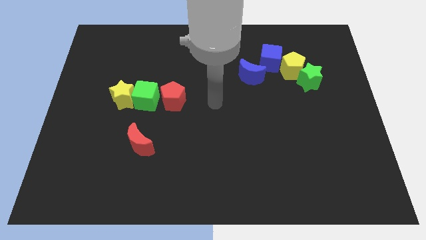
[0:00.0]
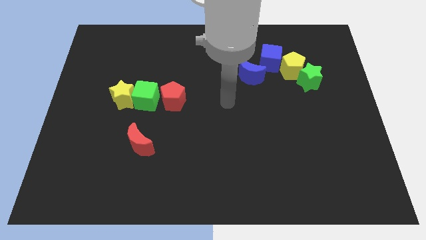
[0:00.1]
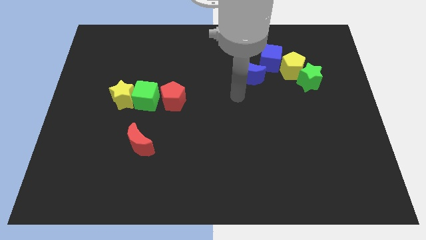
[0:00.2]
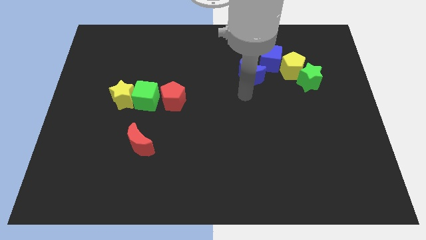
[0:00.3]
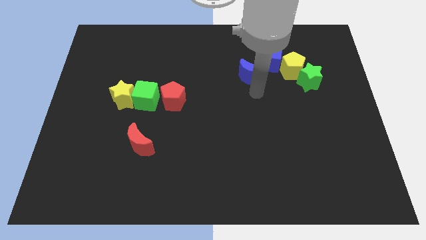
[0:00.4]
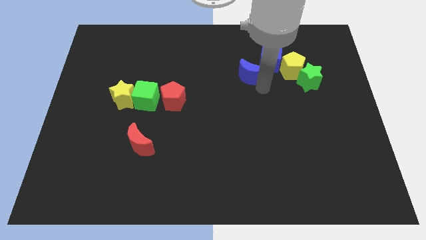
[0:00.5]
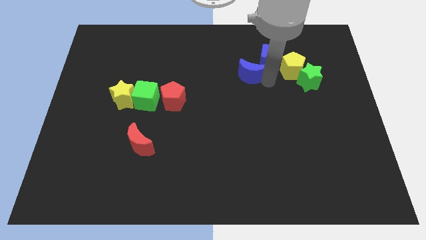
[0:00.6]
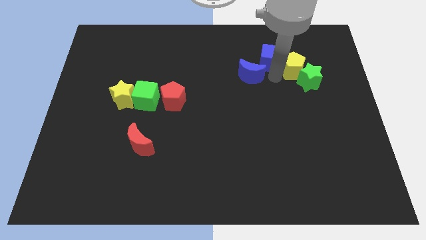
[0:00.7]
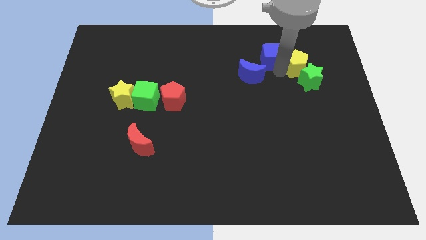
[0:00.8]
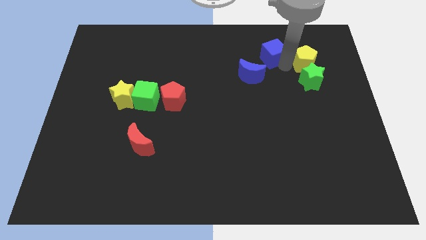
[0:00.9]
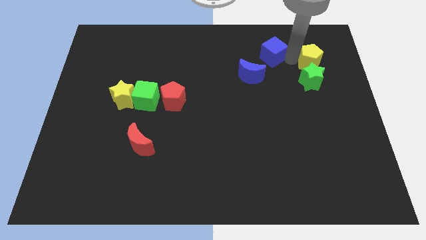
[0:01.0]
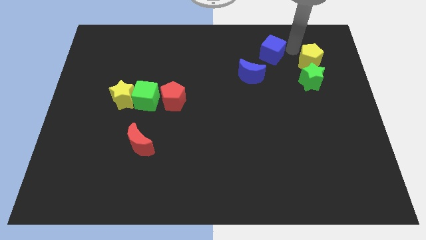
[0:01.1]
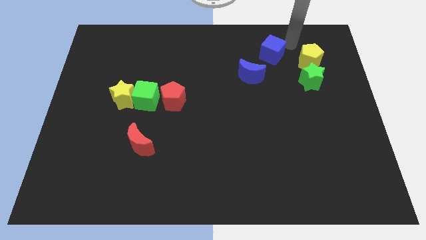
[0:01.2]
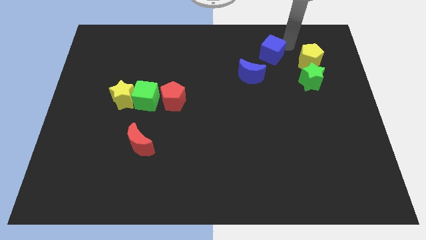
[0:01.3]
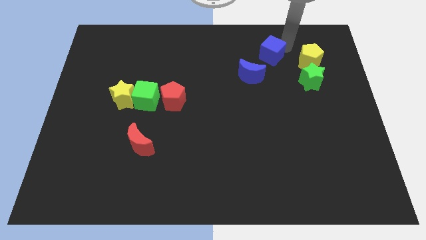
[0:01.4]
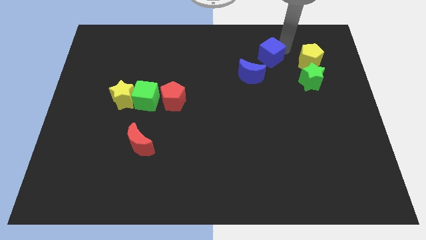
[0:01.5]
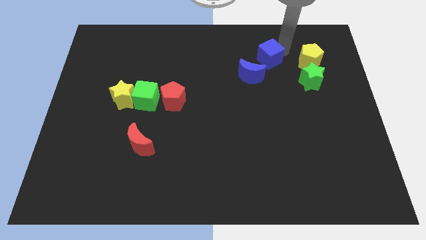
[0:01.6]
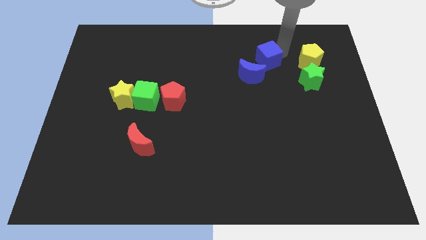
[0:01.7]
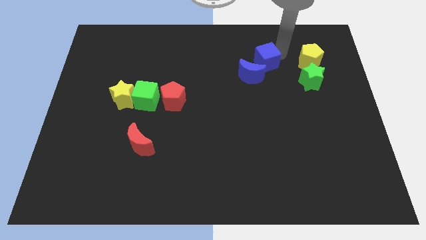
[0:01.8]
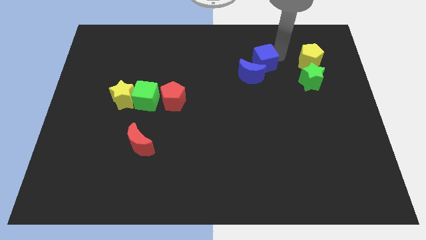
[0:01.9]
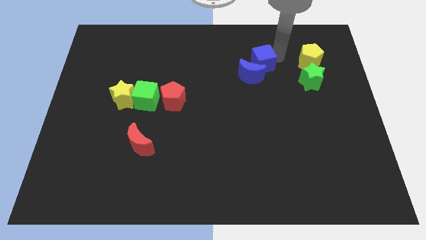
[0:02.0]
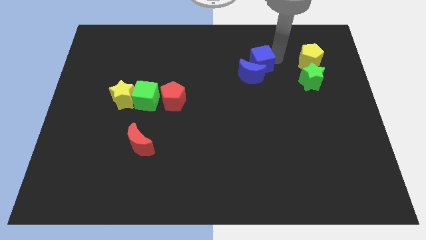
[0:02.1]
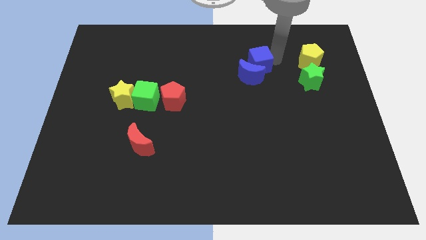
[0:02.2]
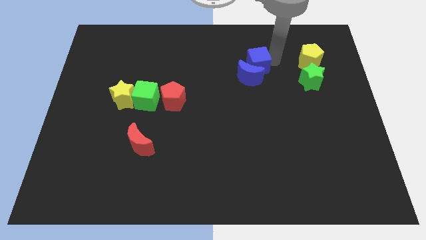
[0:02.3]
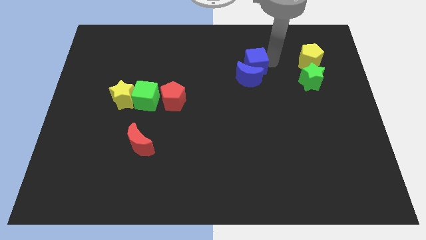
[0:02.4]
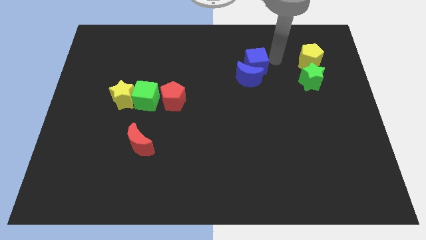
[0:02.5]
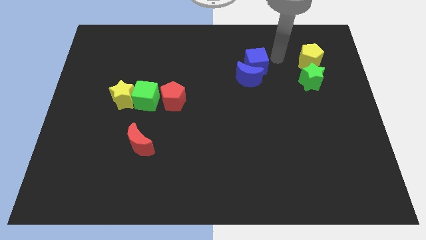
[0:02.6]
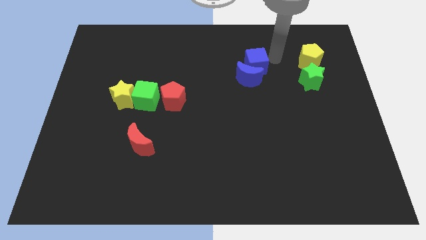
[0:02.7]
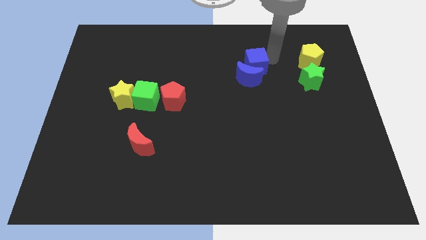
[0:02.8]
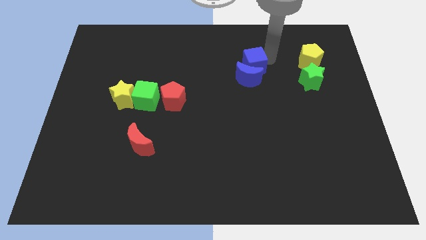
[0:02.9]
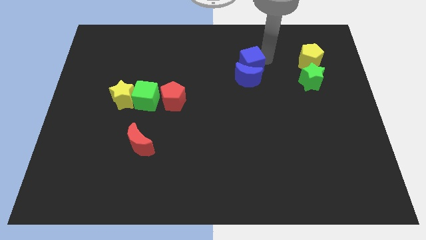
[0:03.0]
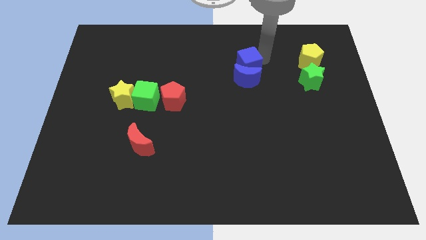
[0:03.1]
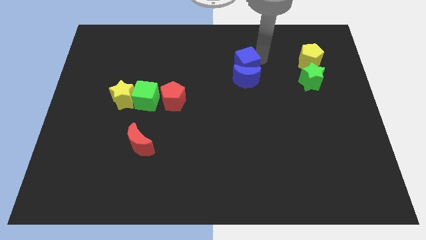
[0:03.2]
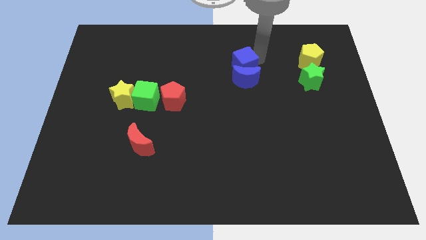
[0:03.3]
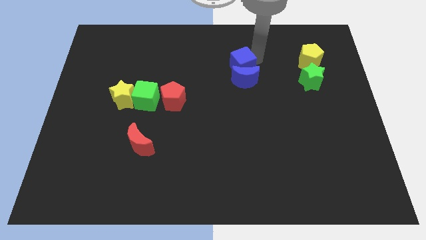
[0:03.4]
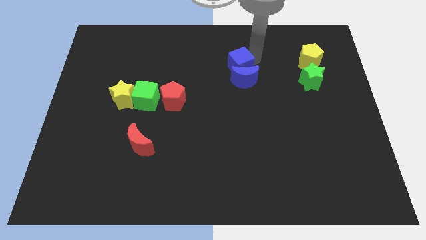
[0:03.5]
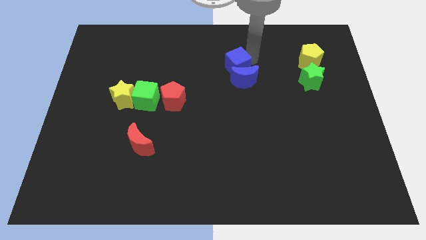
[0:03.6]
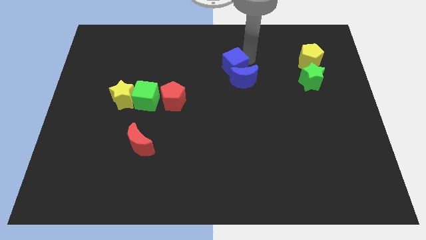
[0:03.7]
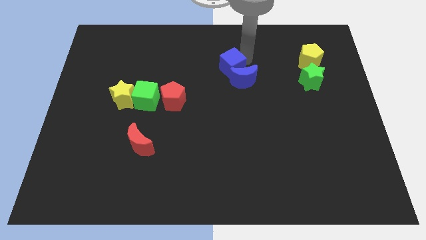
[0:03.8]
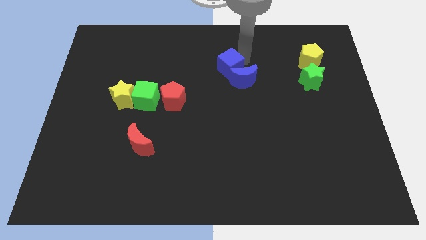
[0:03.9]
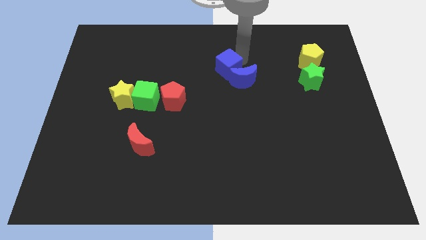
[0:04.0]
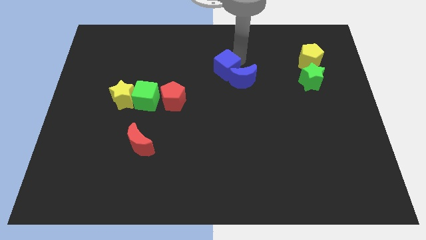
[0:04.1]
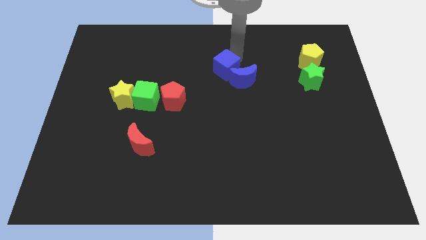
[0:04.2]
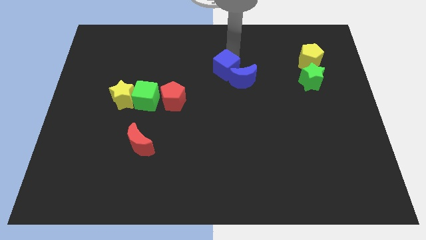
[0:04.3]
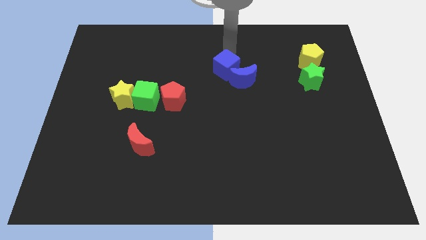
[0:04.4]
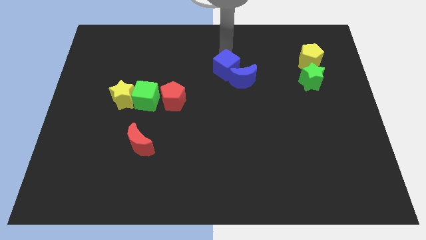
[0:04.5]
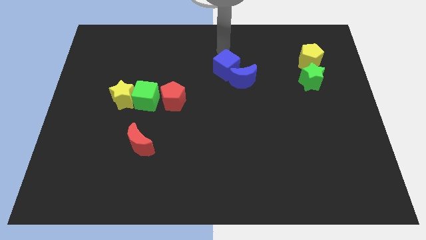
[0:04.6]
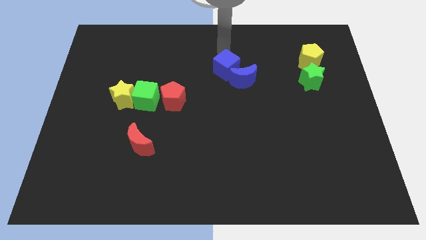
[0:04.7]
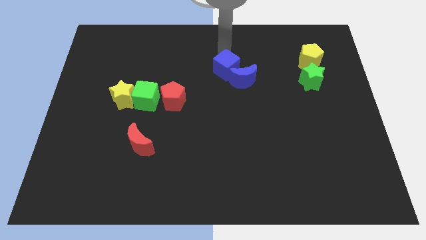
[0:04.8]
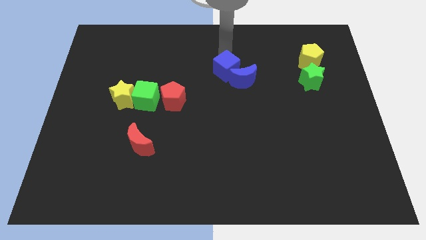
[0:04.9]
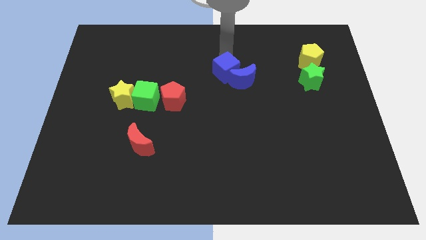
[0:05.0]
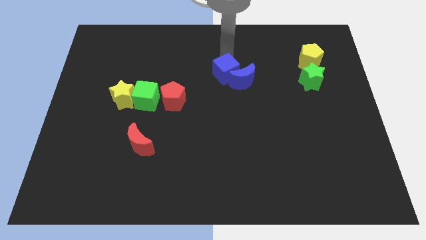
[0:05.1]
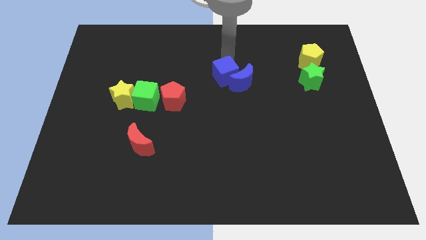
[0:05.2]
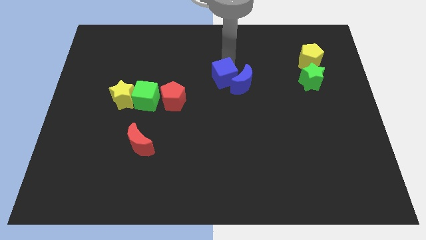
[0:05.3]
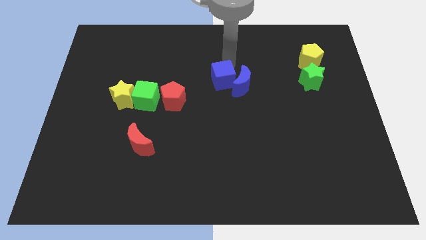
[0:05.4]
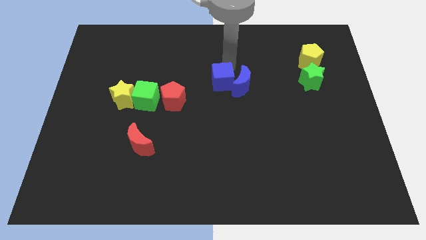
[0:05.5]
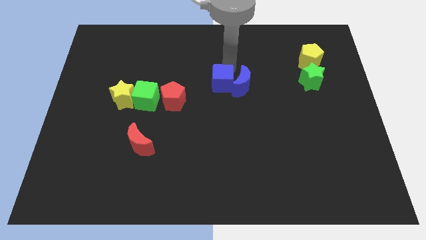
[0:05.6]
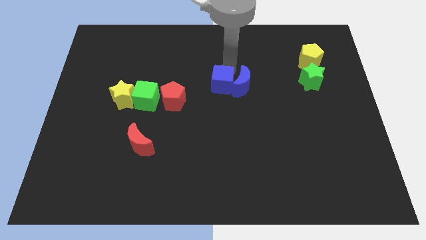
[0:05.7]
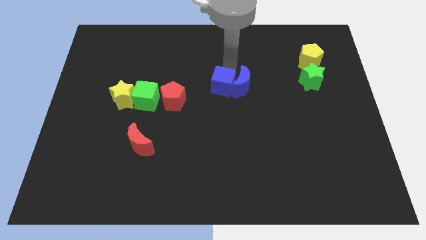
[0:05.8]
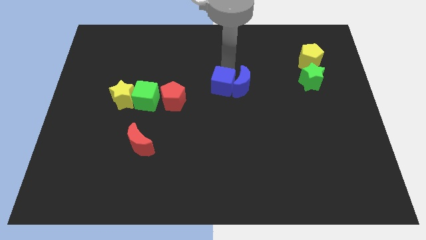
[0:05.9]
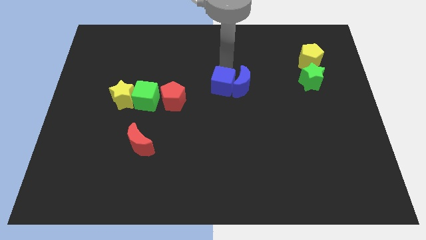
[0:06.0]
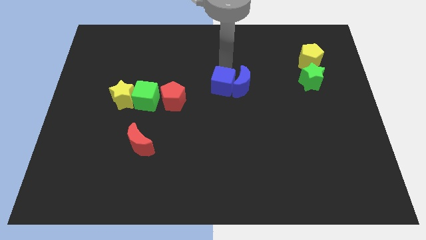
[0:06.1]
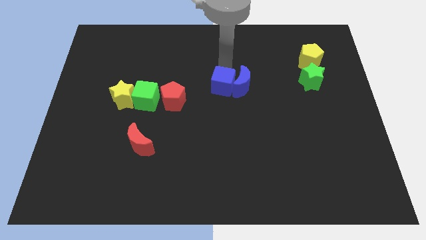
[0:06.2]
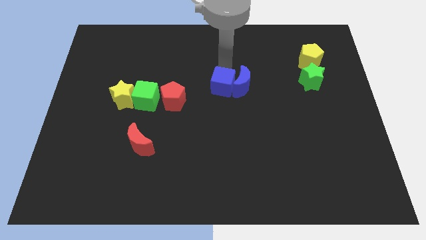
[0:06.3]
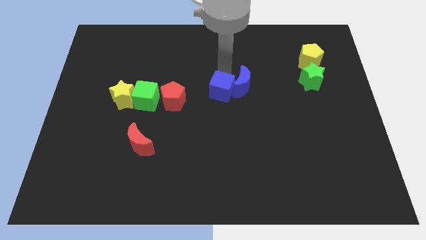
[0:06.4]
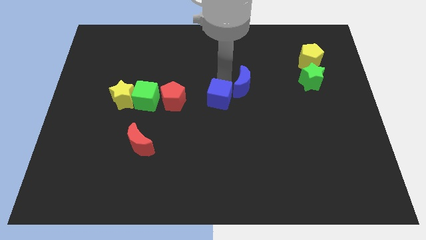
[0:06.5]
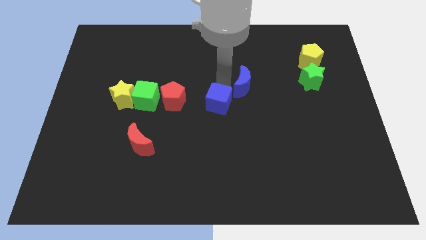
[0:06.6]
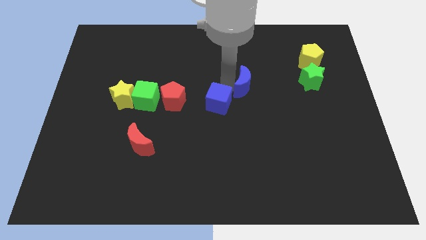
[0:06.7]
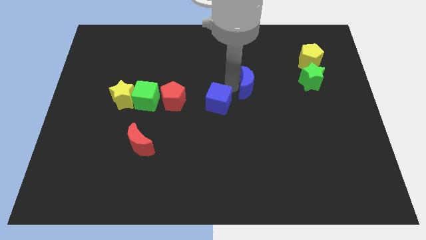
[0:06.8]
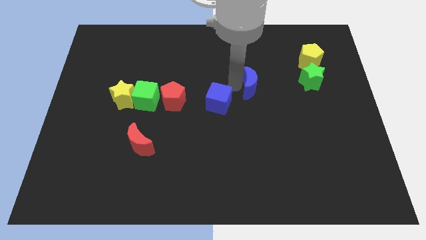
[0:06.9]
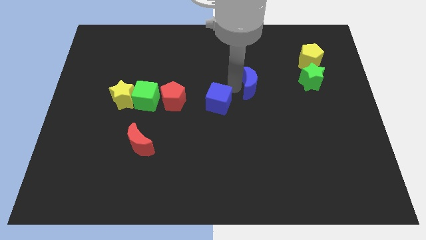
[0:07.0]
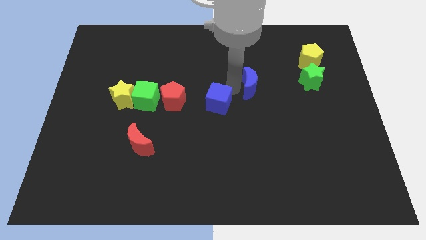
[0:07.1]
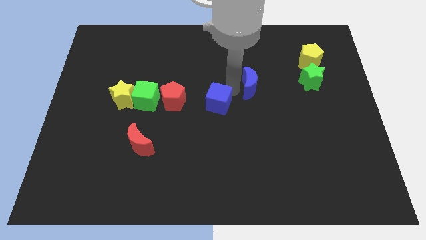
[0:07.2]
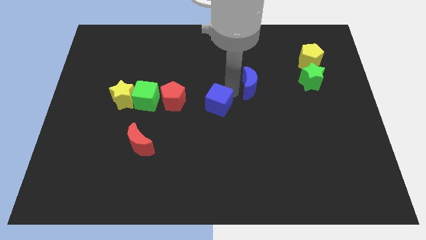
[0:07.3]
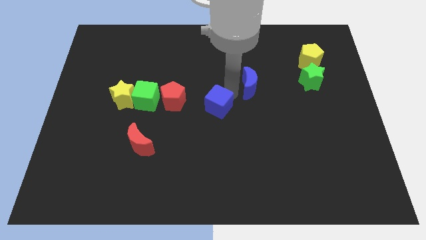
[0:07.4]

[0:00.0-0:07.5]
move the blue cube downwards and left

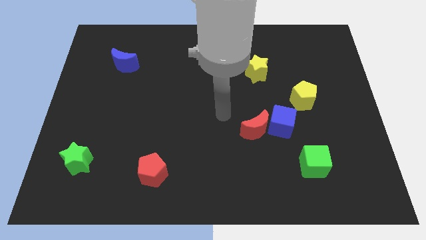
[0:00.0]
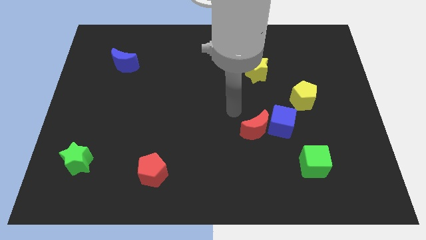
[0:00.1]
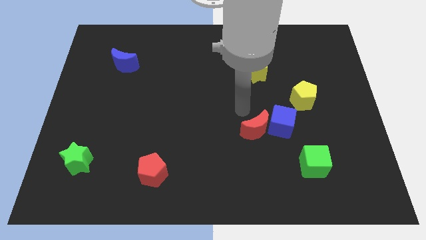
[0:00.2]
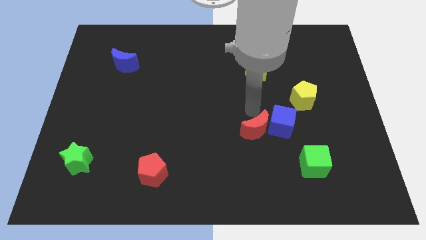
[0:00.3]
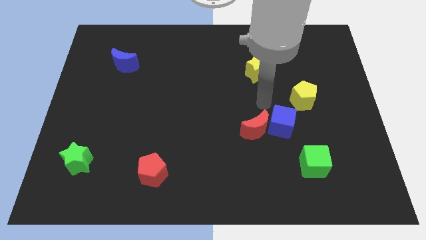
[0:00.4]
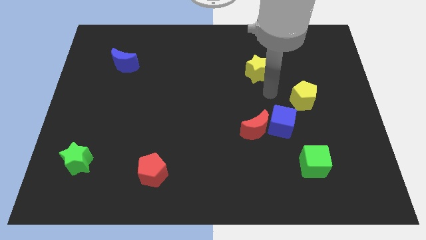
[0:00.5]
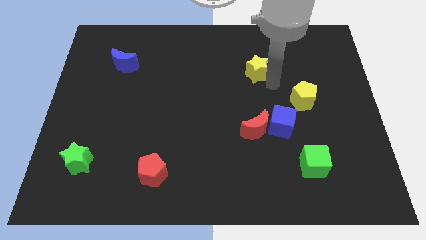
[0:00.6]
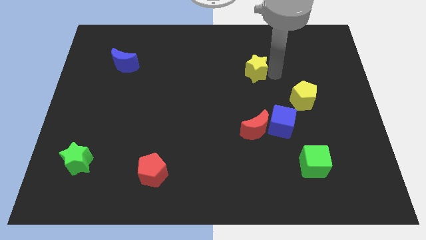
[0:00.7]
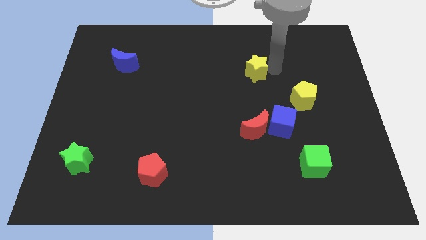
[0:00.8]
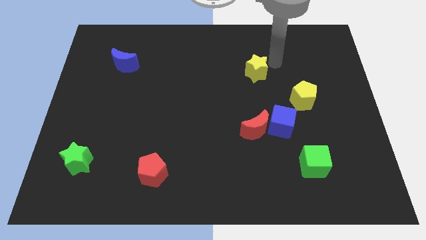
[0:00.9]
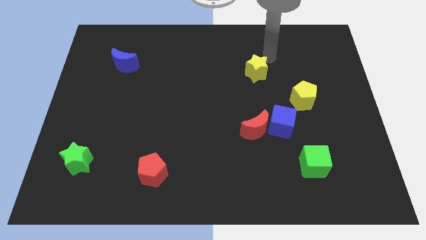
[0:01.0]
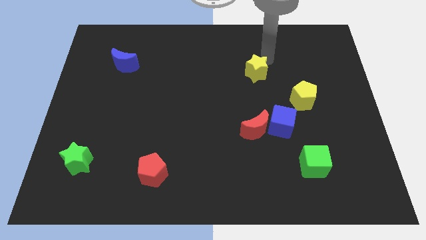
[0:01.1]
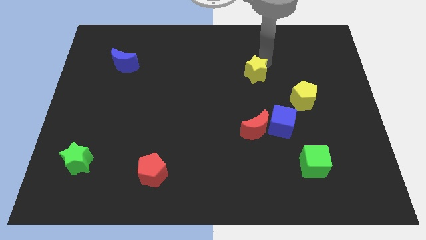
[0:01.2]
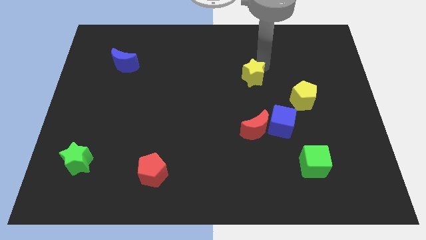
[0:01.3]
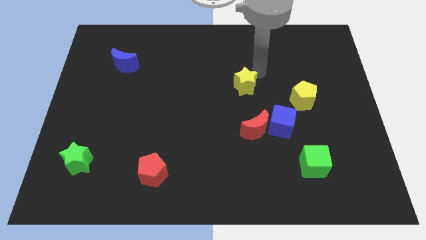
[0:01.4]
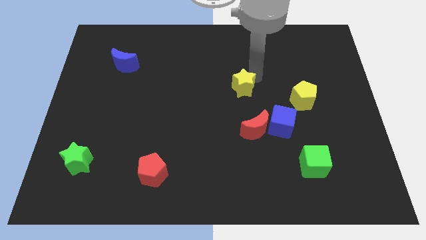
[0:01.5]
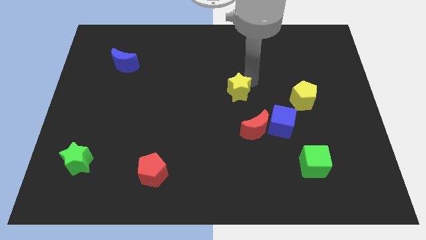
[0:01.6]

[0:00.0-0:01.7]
slightly move the yellow star down and to the left
